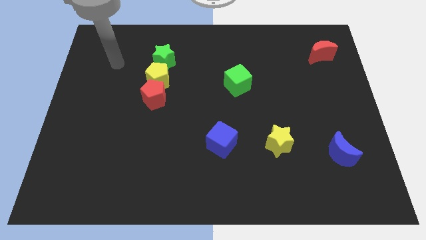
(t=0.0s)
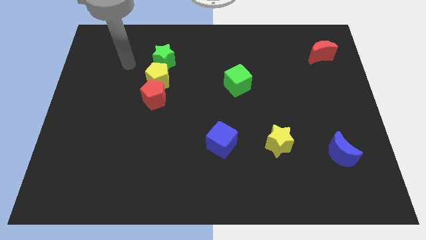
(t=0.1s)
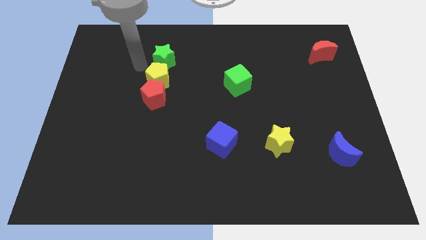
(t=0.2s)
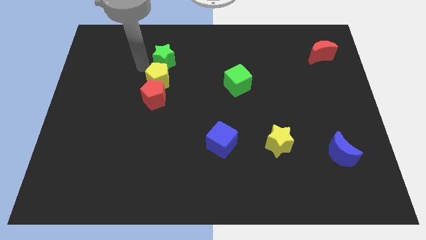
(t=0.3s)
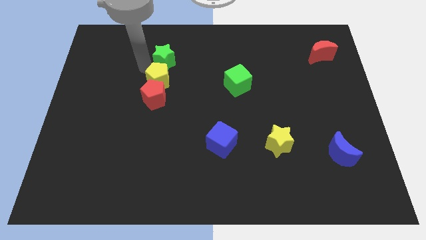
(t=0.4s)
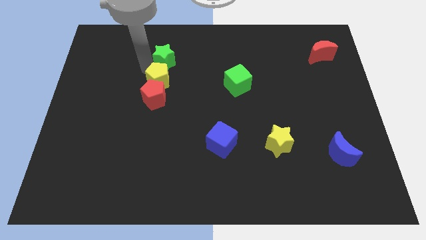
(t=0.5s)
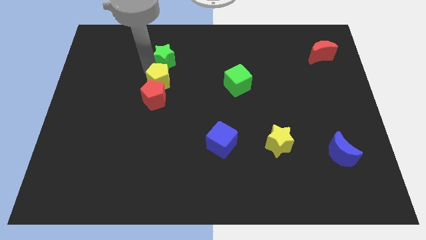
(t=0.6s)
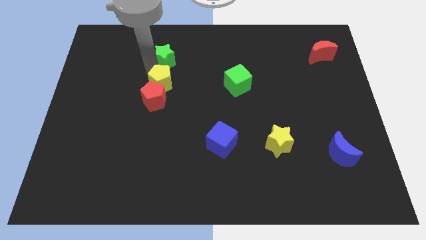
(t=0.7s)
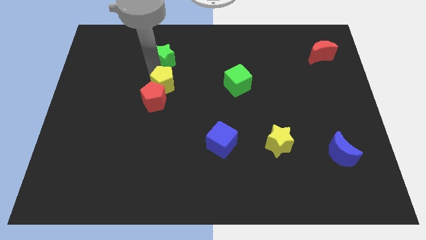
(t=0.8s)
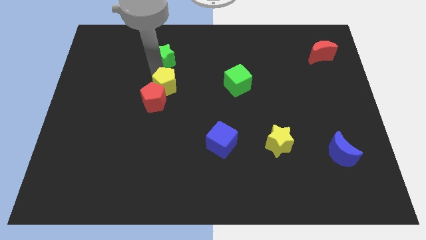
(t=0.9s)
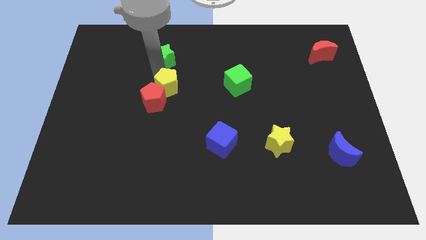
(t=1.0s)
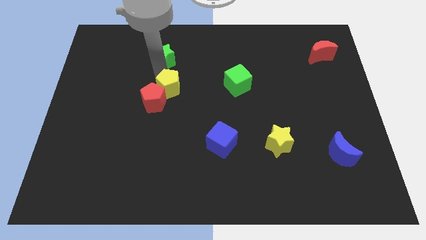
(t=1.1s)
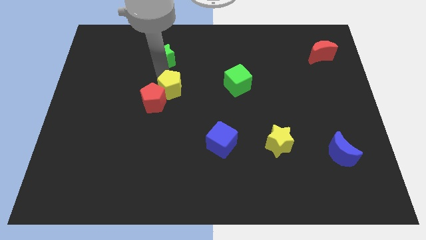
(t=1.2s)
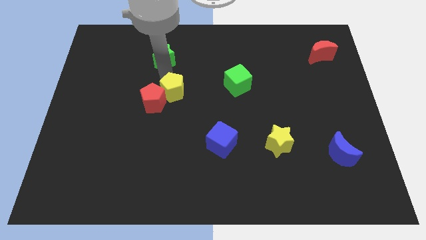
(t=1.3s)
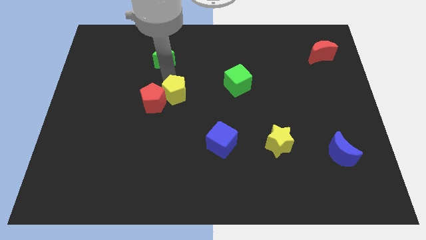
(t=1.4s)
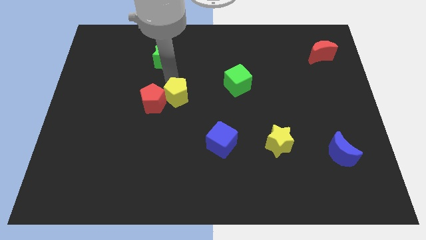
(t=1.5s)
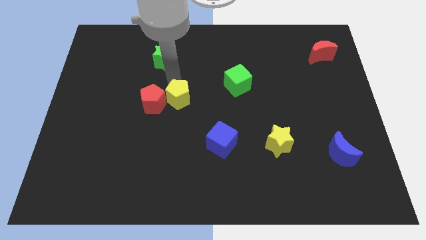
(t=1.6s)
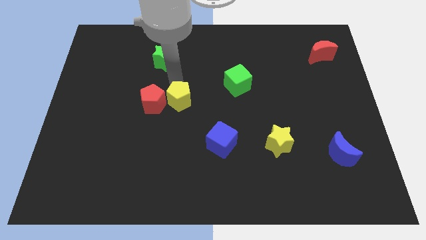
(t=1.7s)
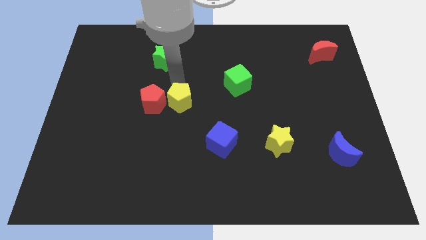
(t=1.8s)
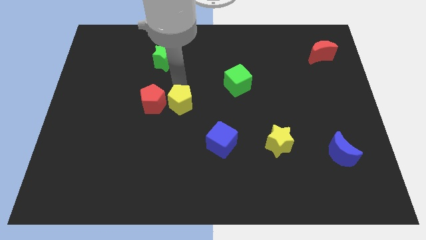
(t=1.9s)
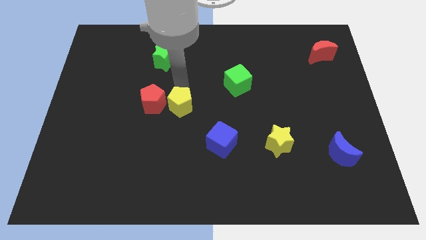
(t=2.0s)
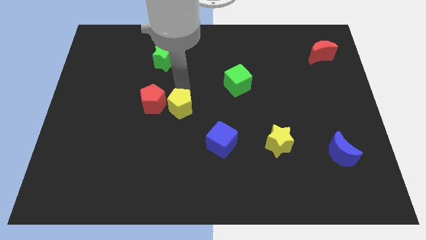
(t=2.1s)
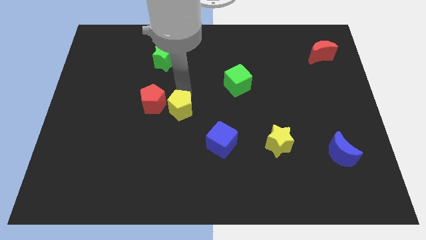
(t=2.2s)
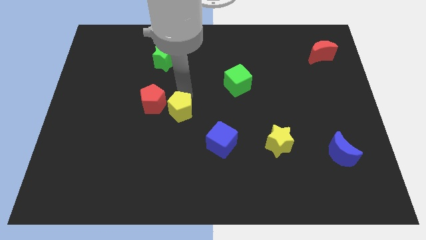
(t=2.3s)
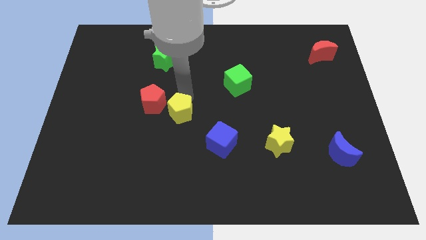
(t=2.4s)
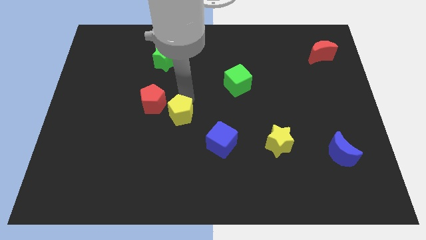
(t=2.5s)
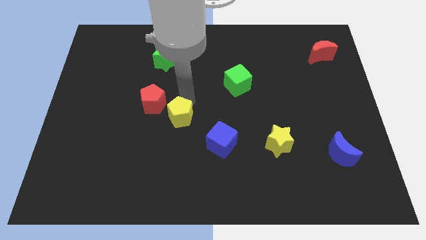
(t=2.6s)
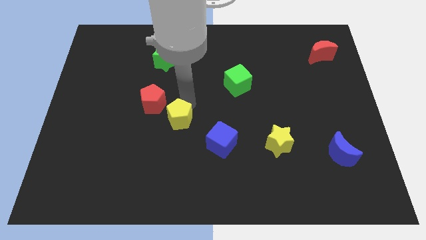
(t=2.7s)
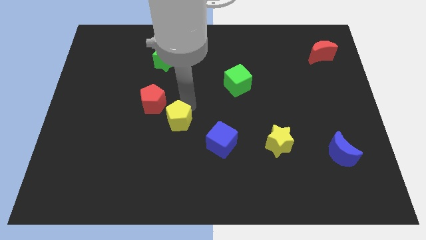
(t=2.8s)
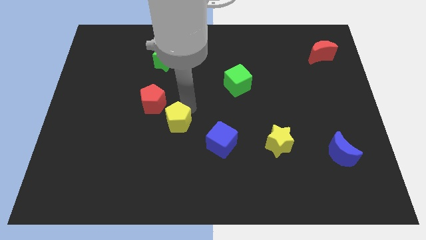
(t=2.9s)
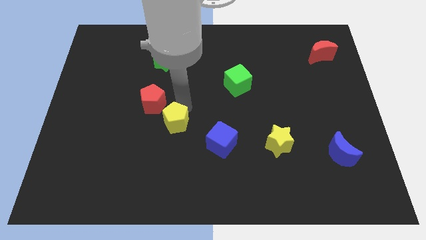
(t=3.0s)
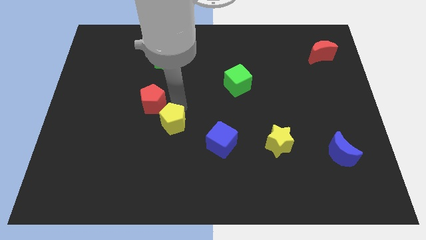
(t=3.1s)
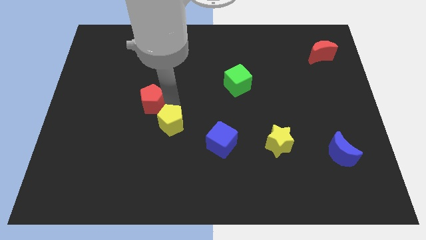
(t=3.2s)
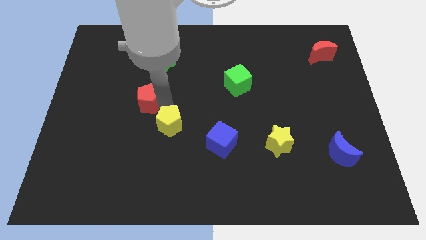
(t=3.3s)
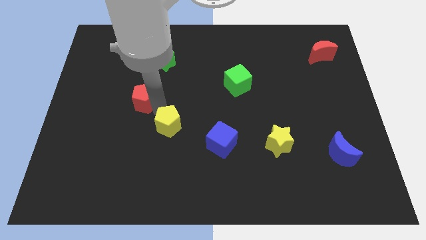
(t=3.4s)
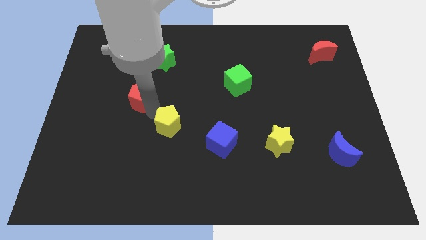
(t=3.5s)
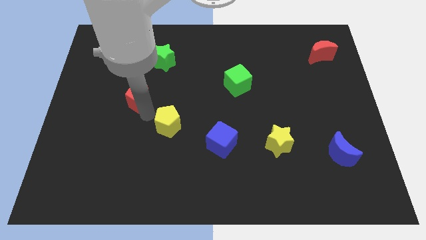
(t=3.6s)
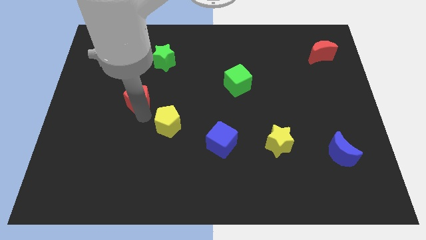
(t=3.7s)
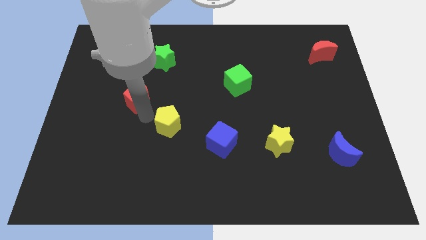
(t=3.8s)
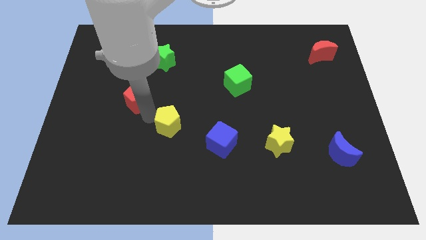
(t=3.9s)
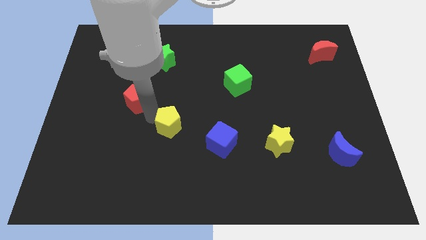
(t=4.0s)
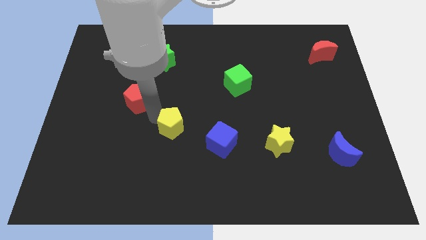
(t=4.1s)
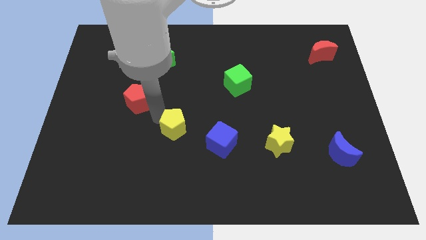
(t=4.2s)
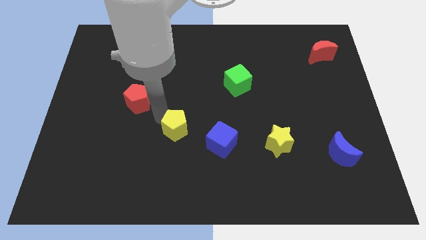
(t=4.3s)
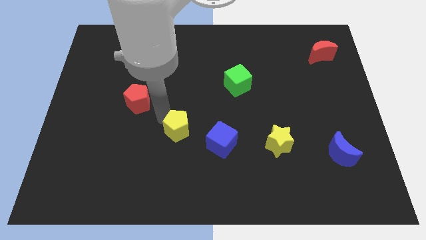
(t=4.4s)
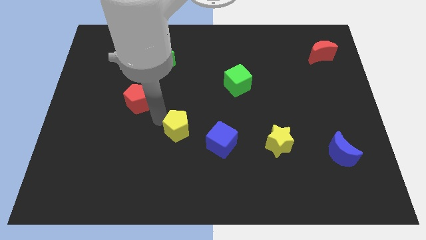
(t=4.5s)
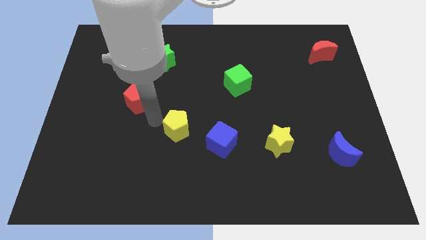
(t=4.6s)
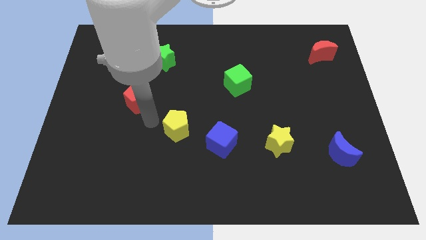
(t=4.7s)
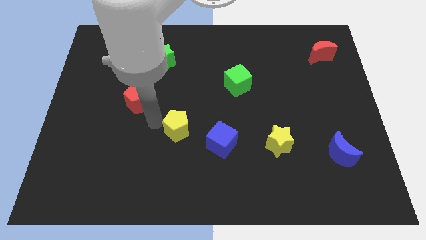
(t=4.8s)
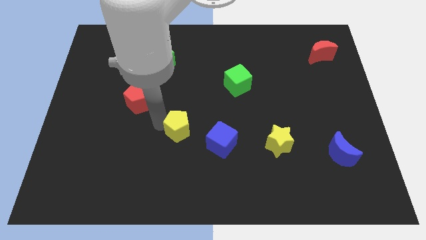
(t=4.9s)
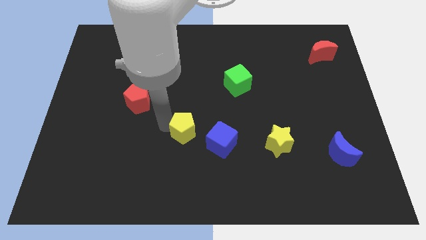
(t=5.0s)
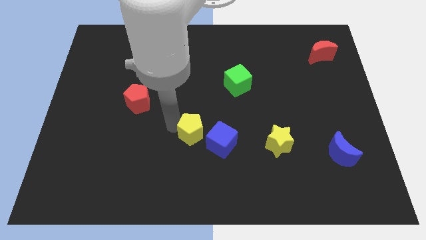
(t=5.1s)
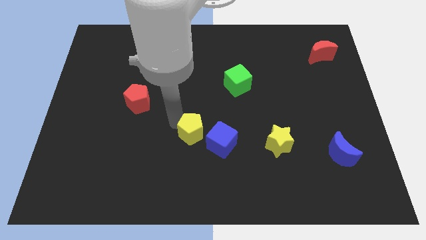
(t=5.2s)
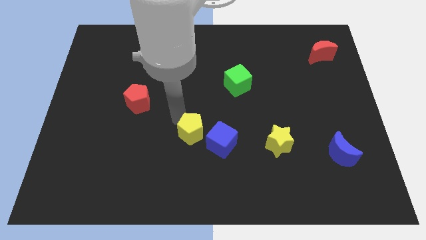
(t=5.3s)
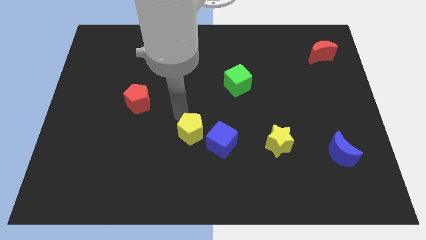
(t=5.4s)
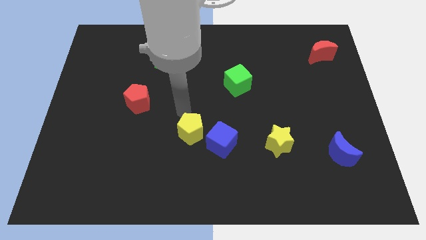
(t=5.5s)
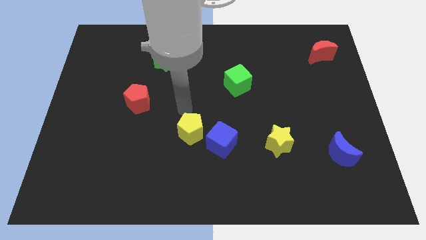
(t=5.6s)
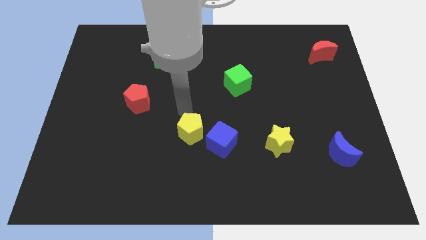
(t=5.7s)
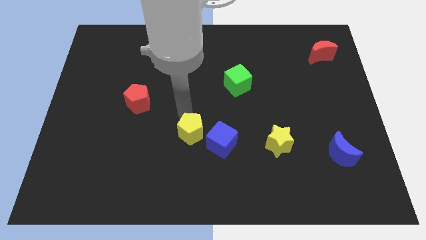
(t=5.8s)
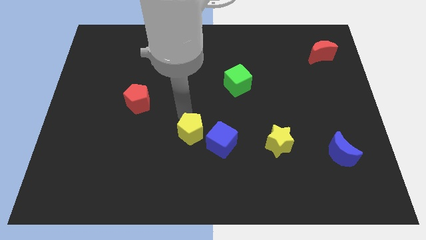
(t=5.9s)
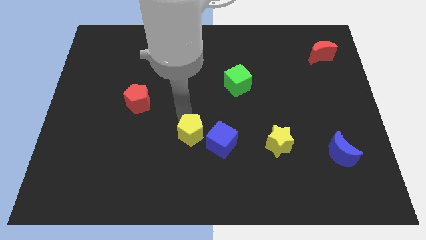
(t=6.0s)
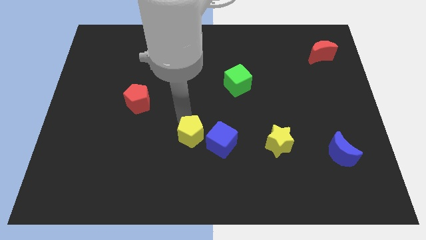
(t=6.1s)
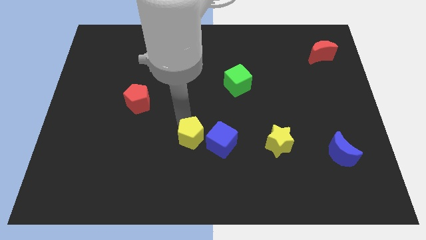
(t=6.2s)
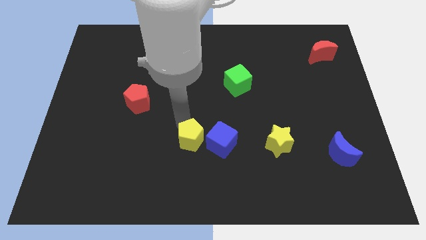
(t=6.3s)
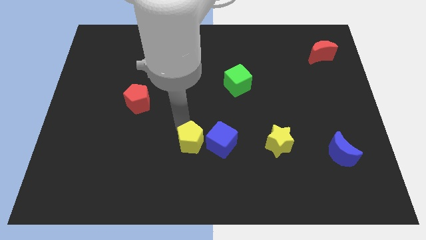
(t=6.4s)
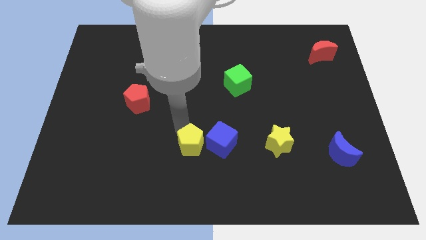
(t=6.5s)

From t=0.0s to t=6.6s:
put the yellow pentagon diagonally down and to the left of the blue cube
